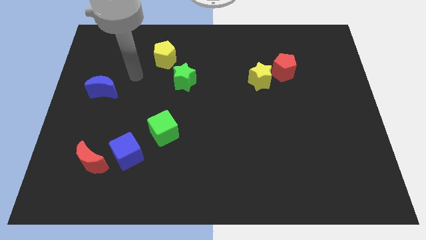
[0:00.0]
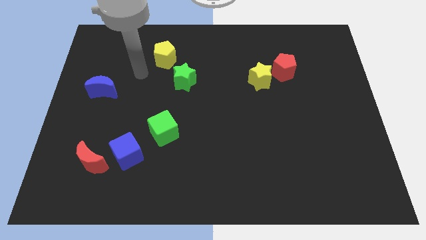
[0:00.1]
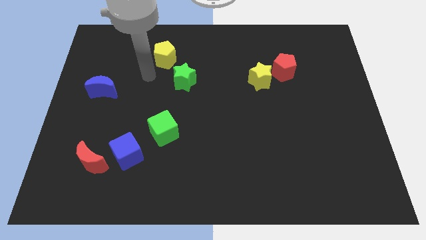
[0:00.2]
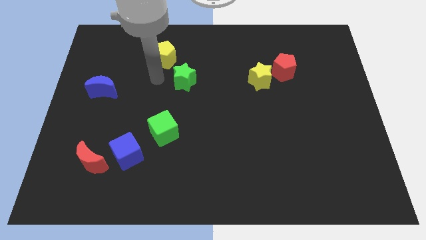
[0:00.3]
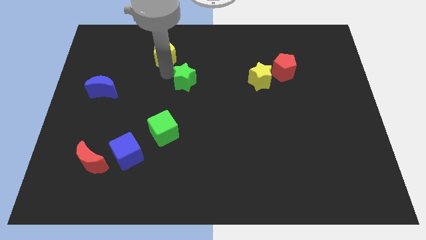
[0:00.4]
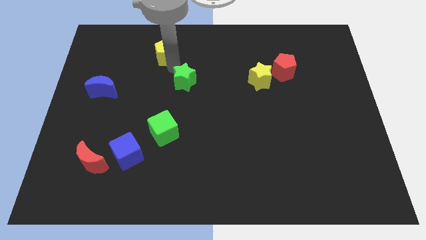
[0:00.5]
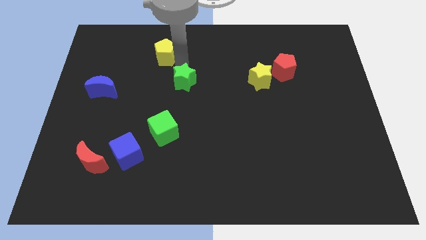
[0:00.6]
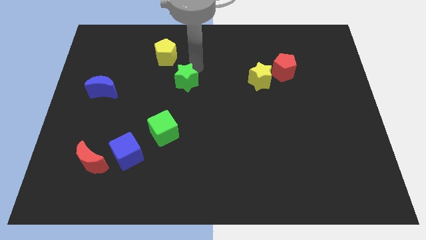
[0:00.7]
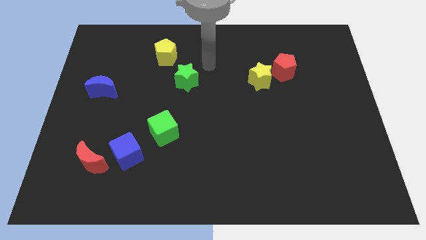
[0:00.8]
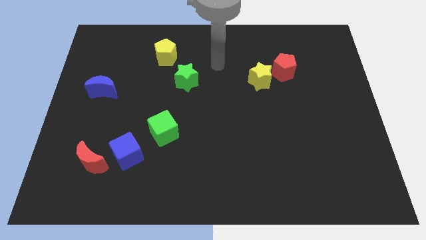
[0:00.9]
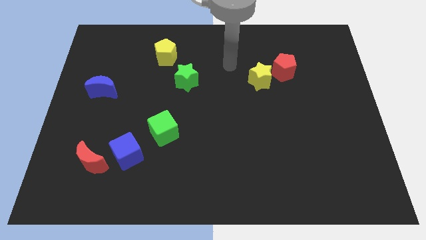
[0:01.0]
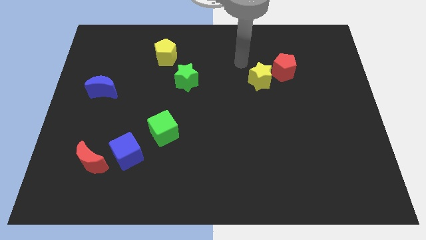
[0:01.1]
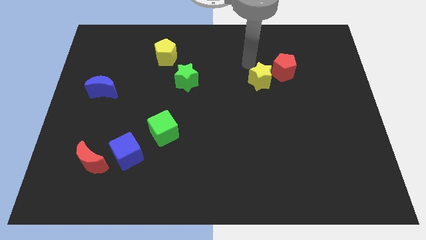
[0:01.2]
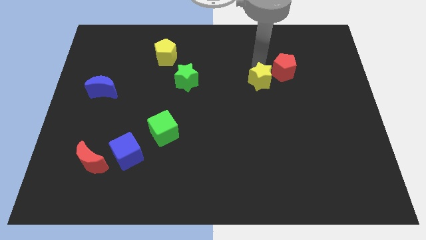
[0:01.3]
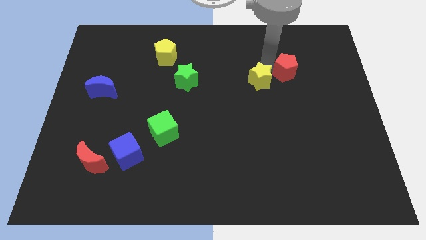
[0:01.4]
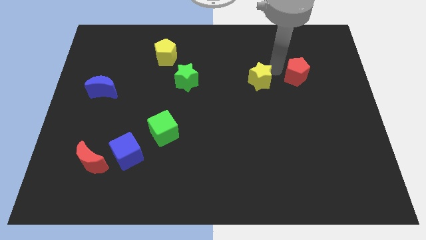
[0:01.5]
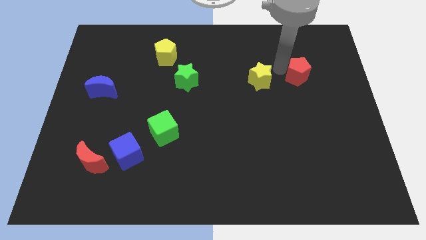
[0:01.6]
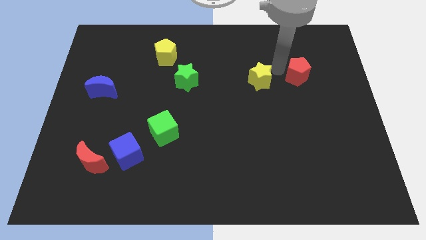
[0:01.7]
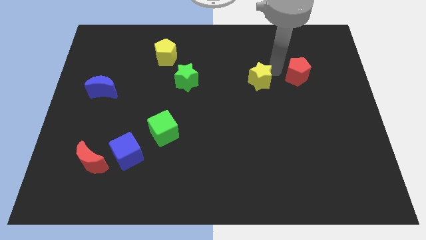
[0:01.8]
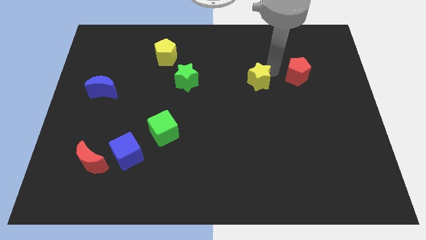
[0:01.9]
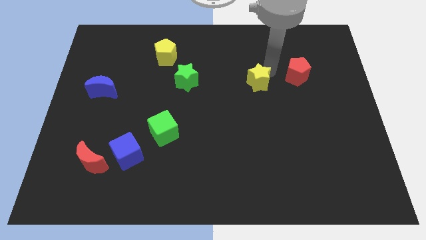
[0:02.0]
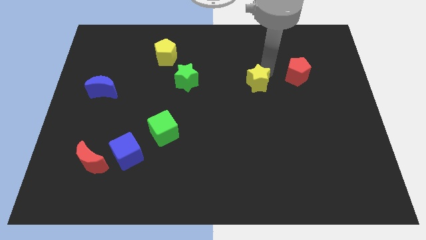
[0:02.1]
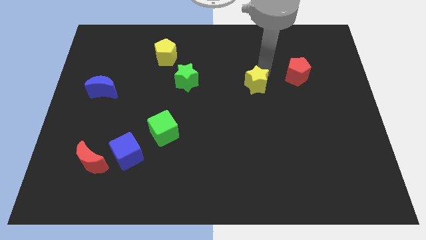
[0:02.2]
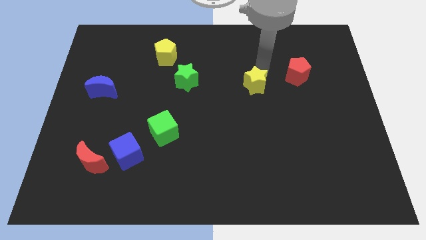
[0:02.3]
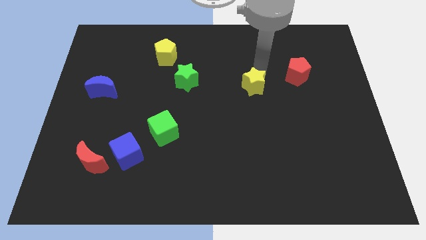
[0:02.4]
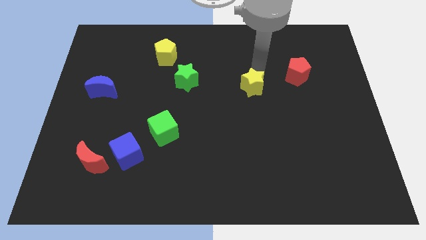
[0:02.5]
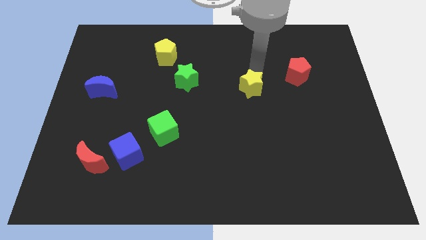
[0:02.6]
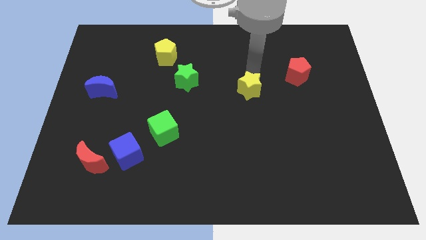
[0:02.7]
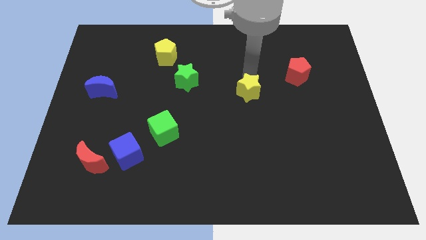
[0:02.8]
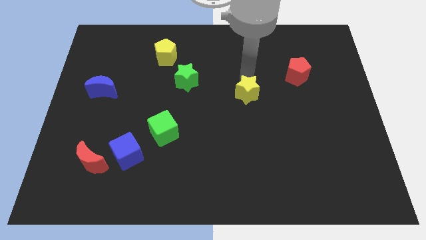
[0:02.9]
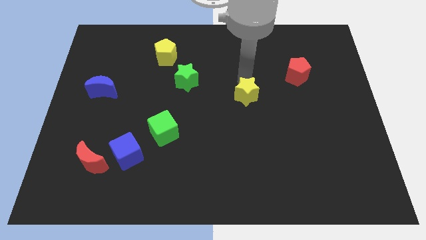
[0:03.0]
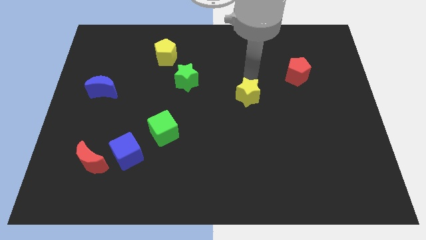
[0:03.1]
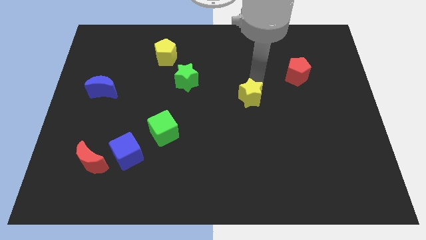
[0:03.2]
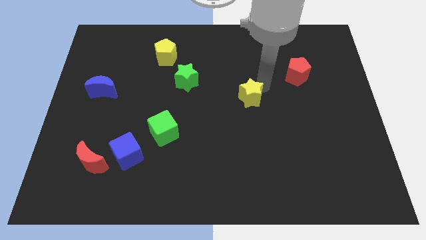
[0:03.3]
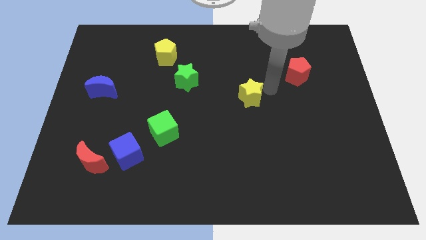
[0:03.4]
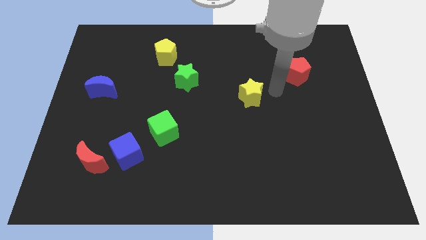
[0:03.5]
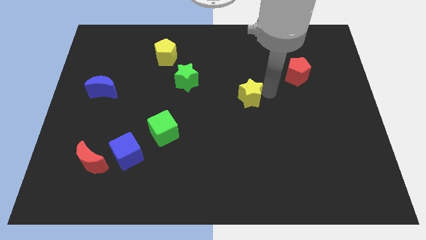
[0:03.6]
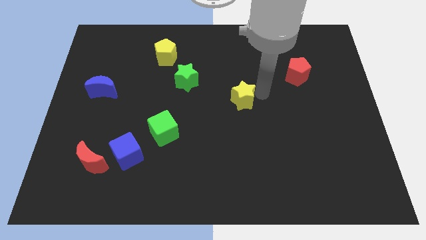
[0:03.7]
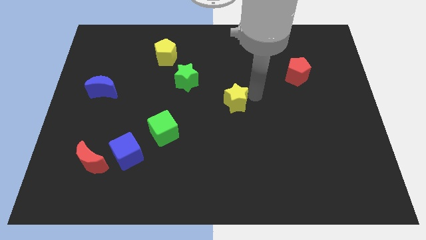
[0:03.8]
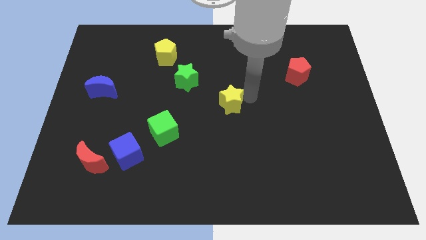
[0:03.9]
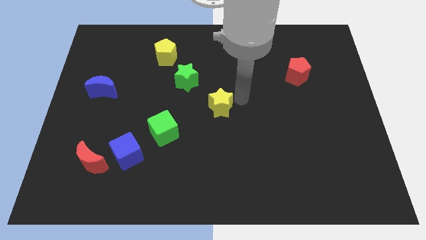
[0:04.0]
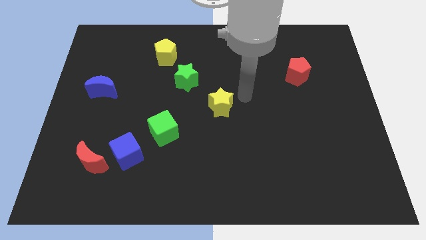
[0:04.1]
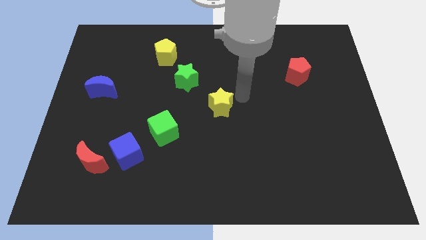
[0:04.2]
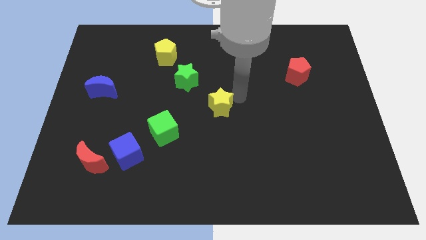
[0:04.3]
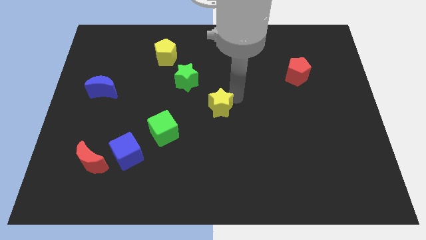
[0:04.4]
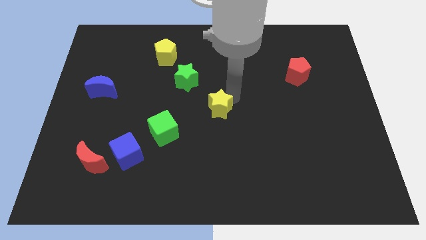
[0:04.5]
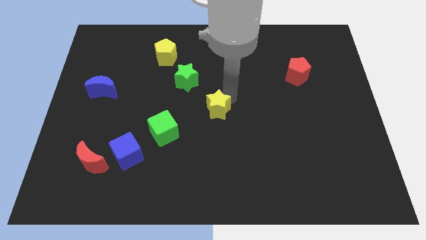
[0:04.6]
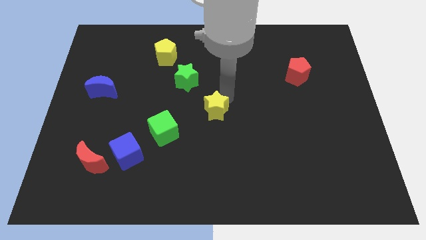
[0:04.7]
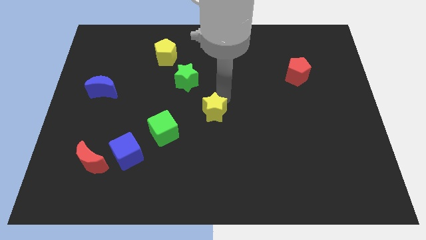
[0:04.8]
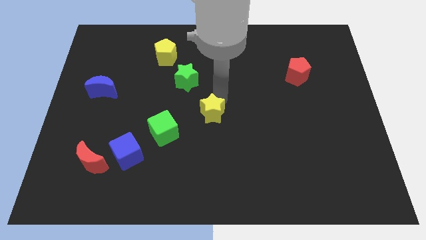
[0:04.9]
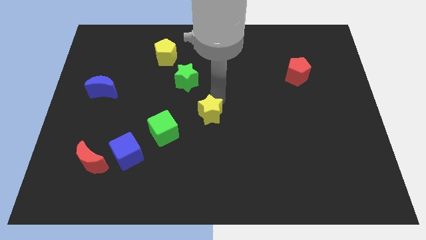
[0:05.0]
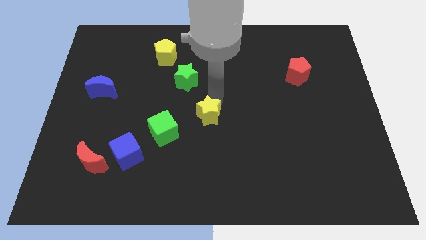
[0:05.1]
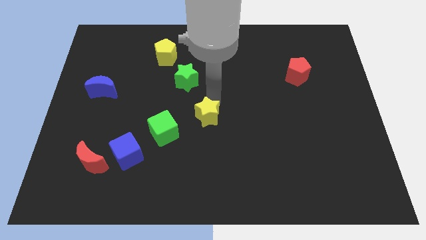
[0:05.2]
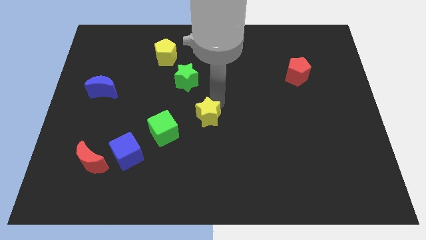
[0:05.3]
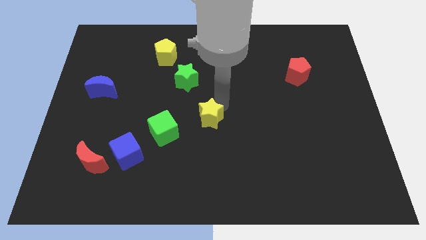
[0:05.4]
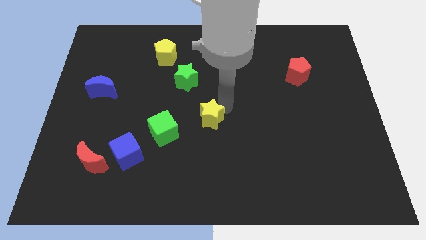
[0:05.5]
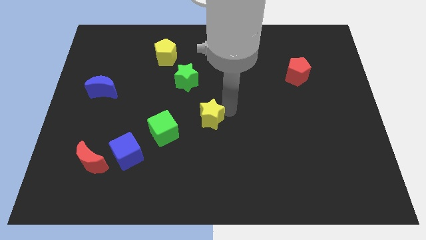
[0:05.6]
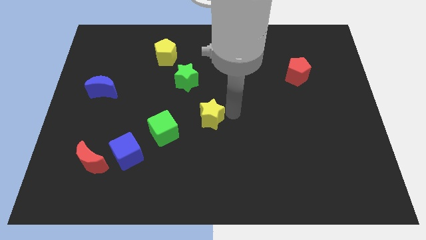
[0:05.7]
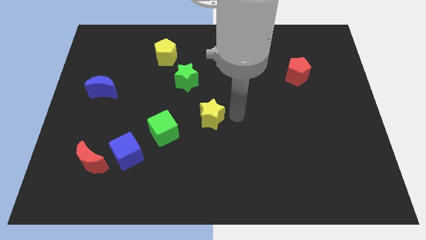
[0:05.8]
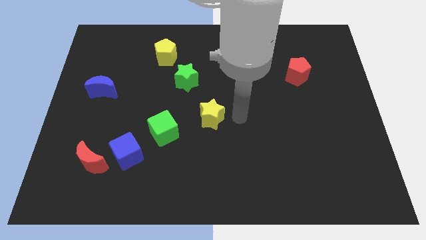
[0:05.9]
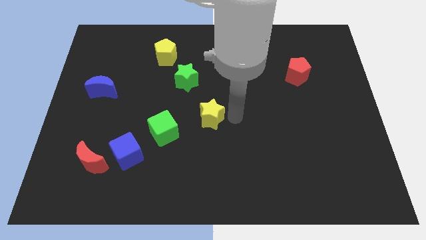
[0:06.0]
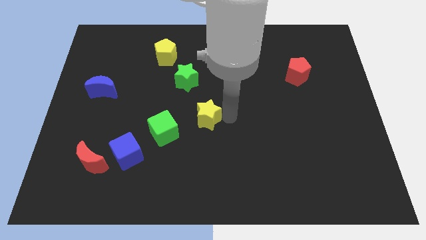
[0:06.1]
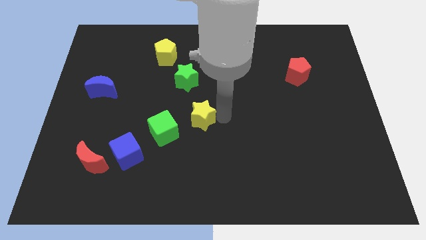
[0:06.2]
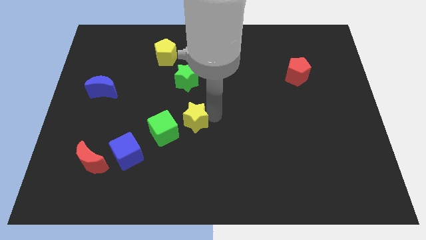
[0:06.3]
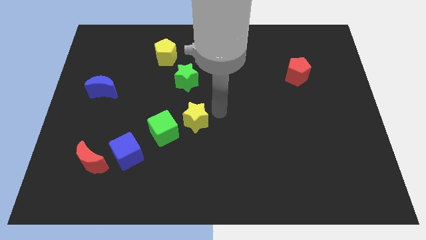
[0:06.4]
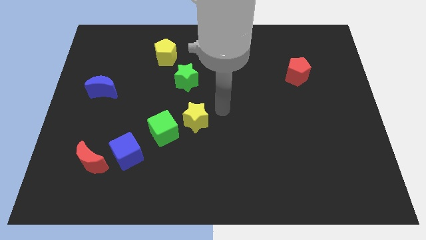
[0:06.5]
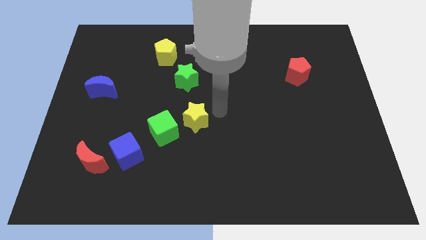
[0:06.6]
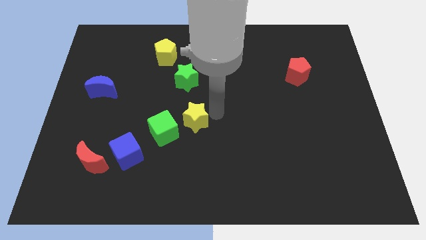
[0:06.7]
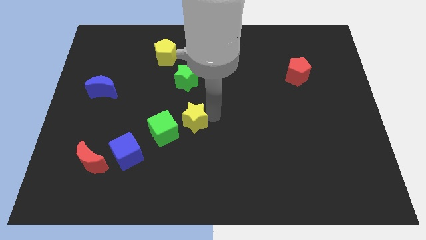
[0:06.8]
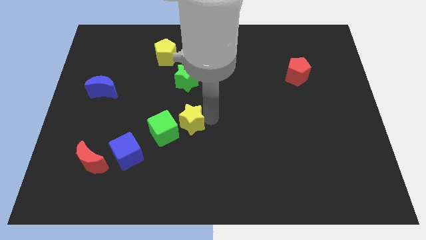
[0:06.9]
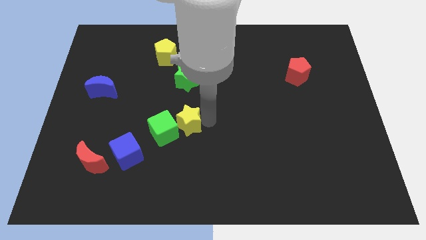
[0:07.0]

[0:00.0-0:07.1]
slide the yellow star next to the green cube

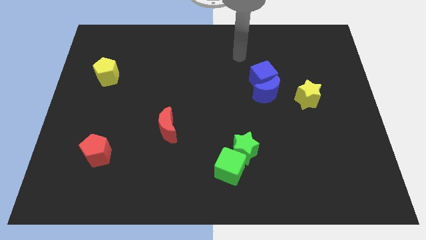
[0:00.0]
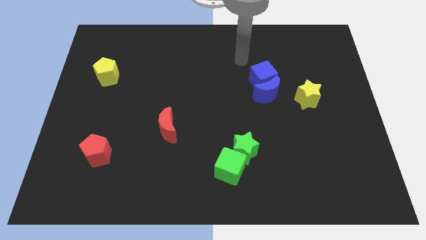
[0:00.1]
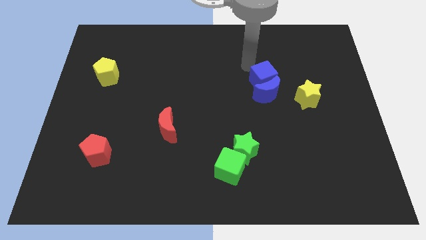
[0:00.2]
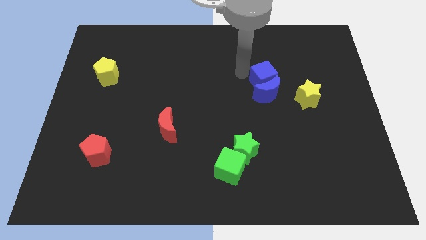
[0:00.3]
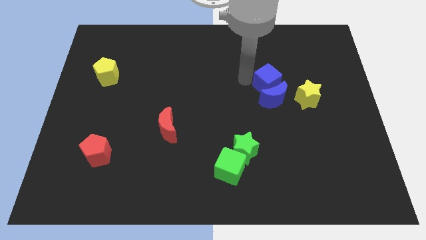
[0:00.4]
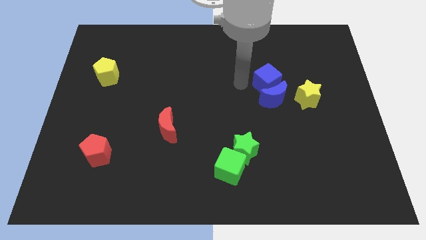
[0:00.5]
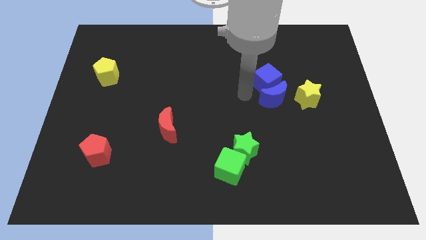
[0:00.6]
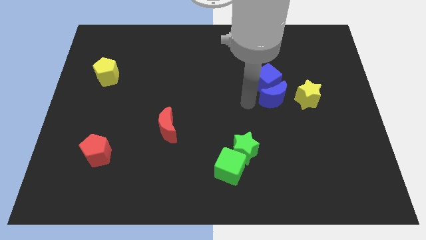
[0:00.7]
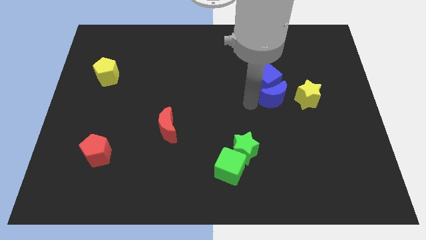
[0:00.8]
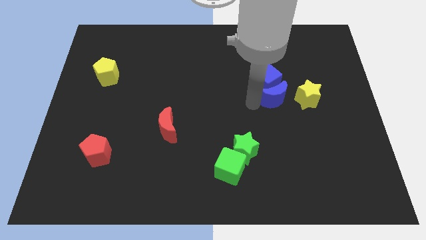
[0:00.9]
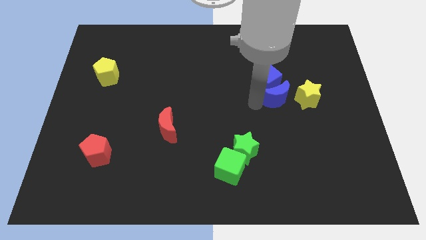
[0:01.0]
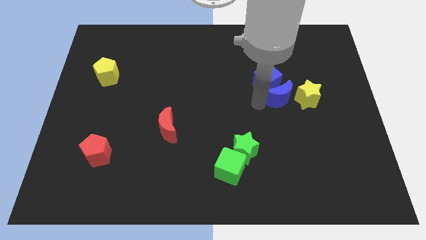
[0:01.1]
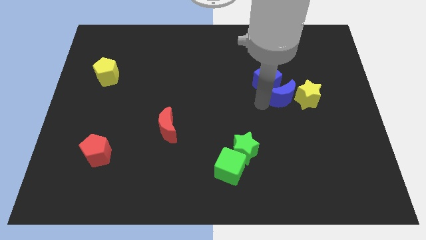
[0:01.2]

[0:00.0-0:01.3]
push the blue moon to the yellow star
